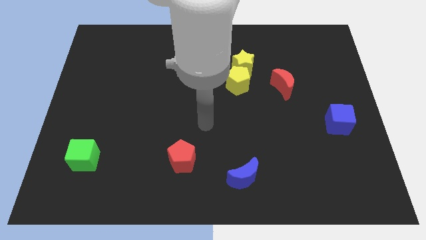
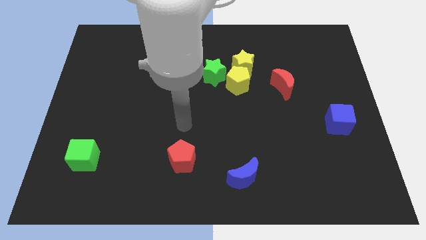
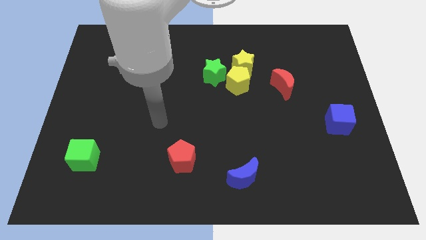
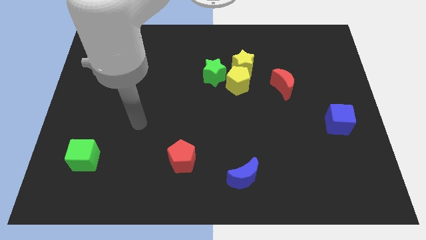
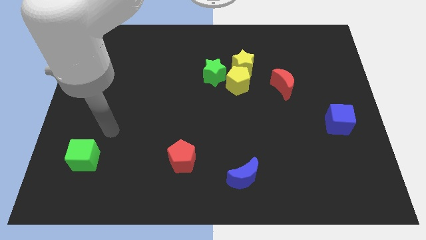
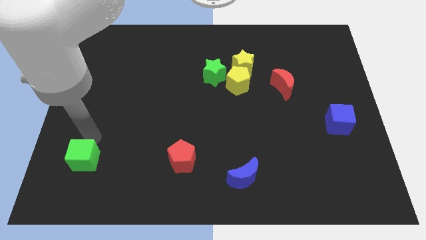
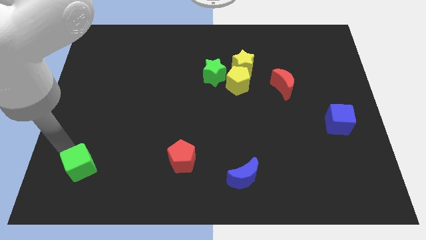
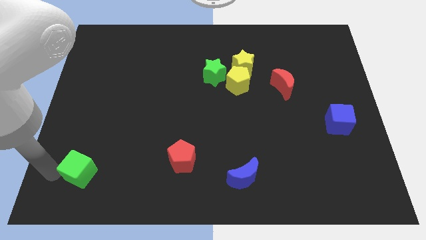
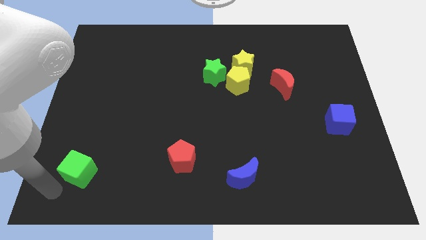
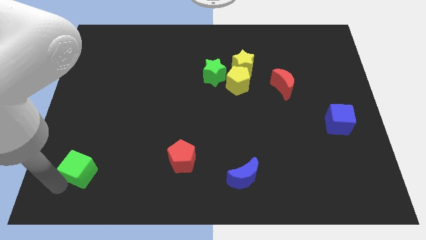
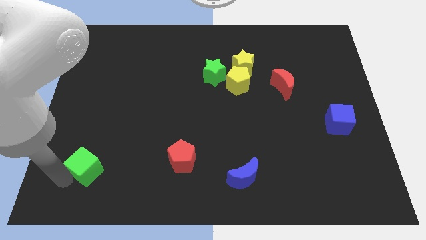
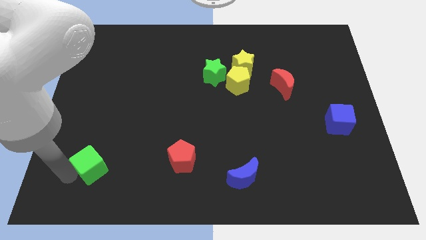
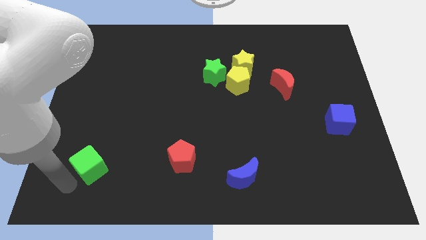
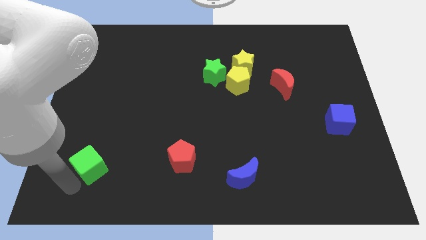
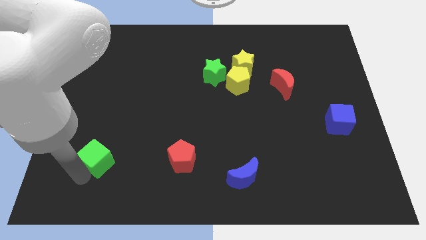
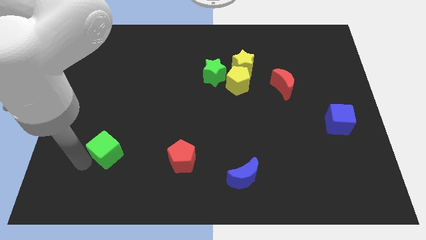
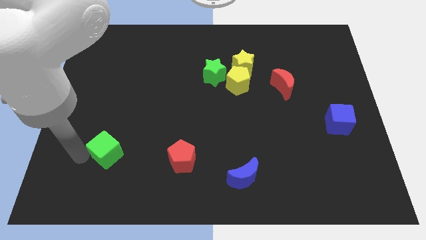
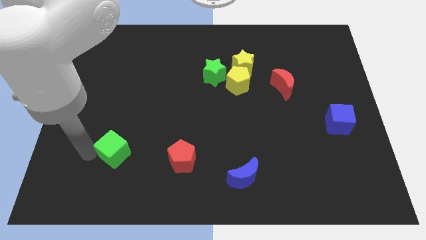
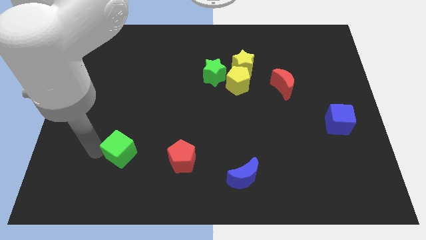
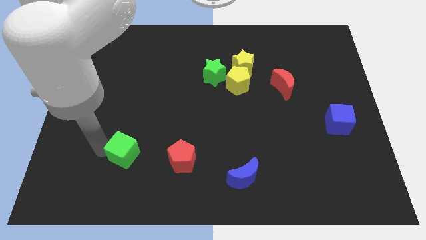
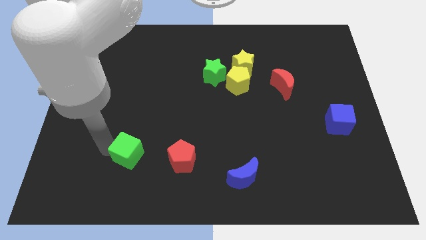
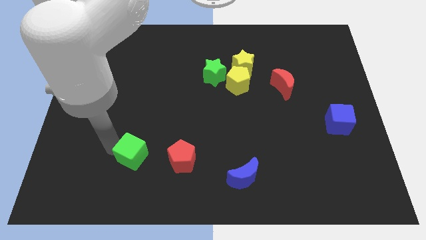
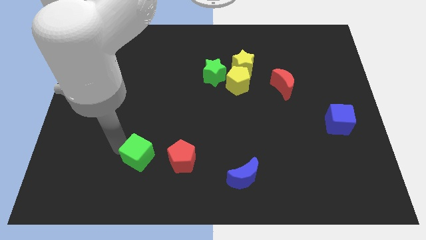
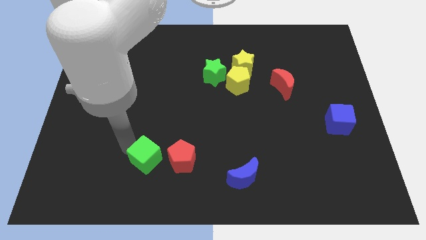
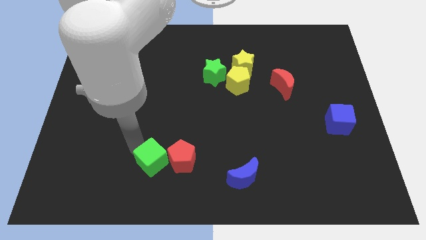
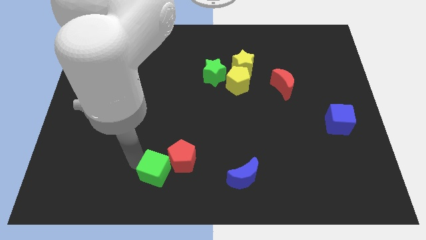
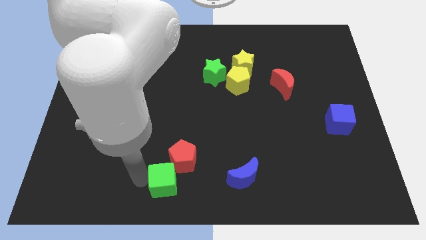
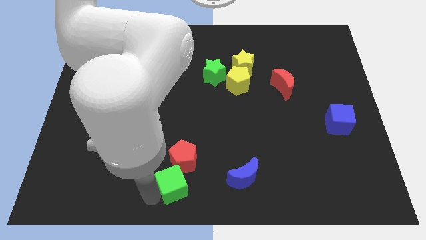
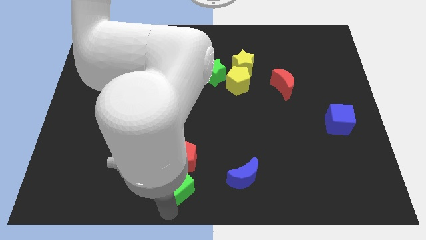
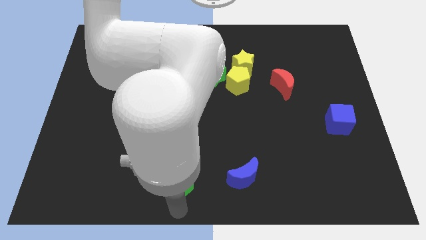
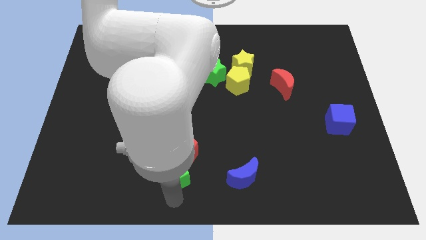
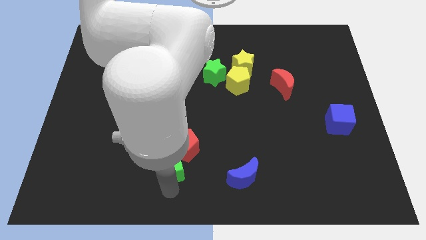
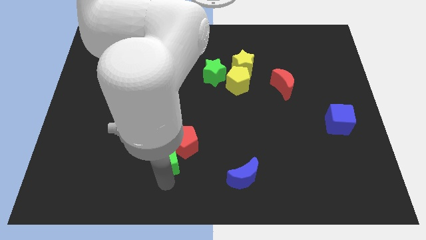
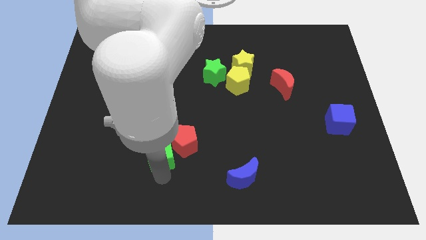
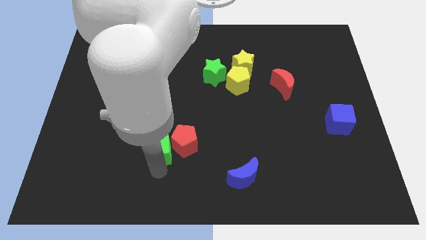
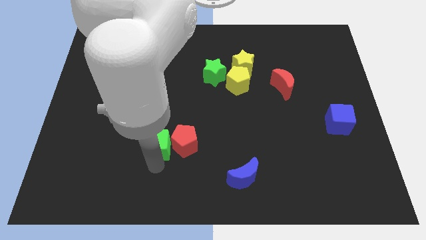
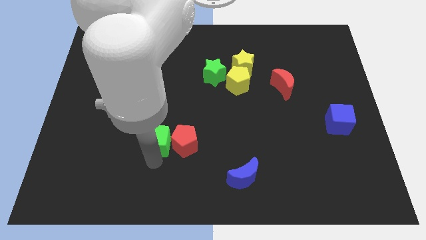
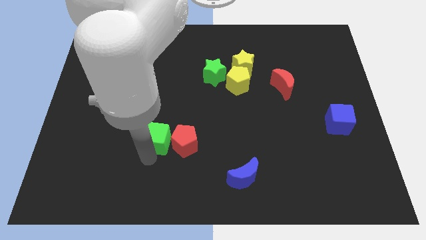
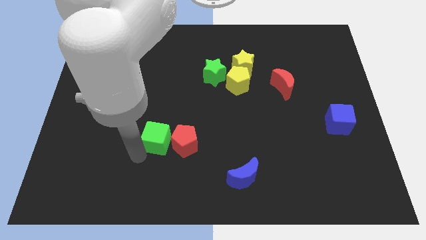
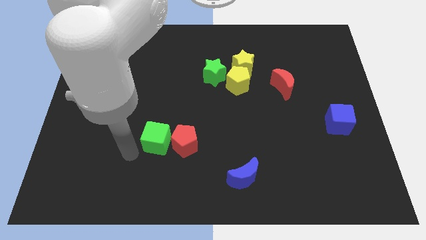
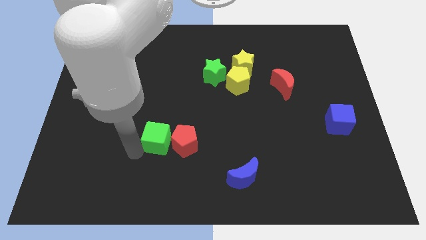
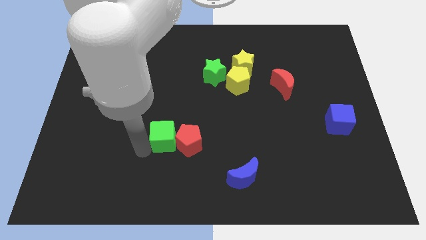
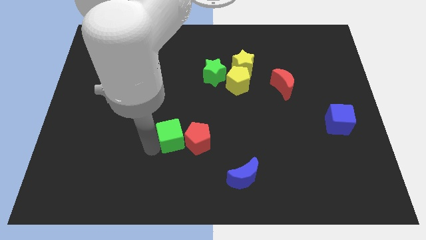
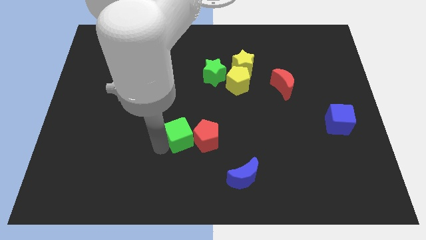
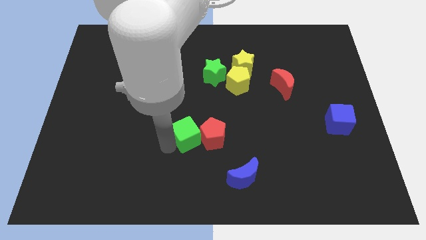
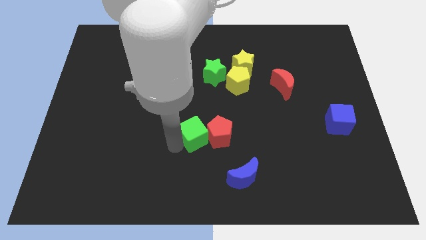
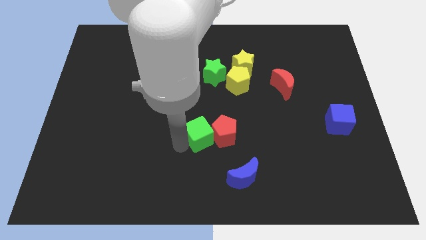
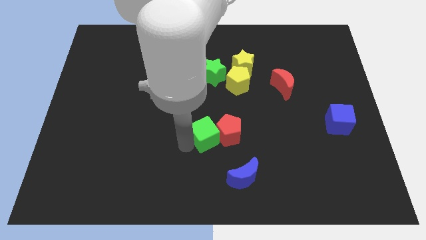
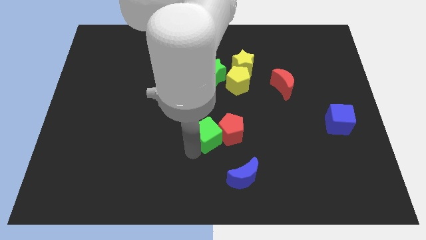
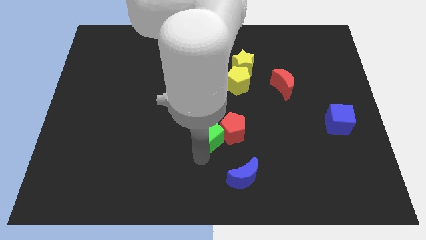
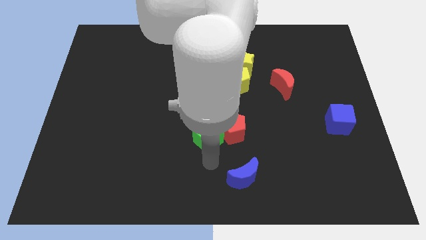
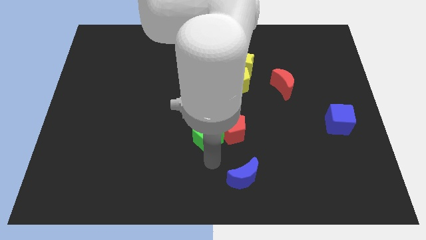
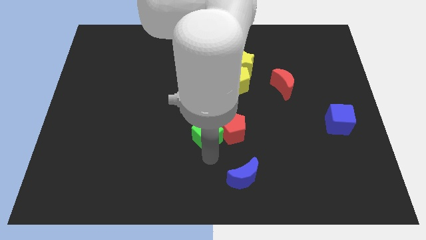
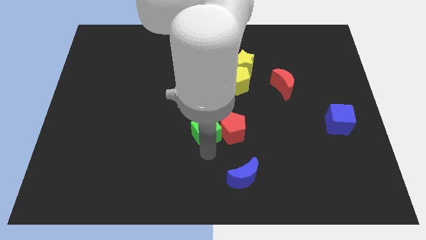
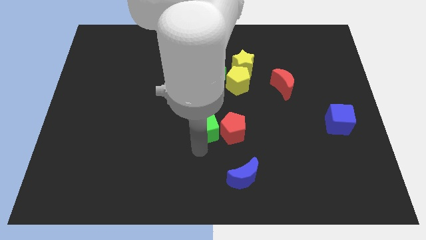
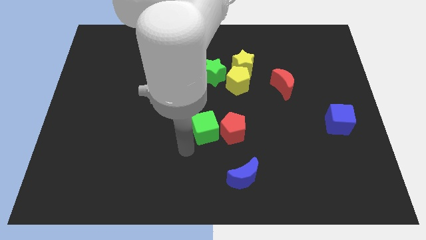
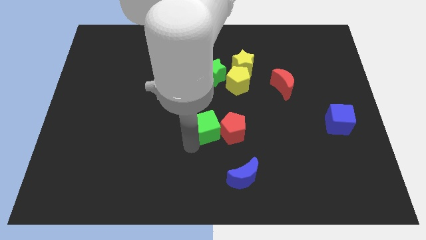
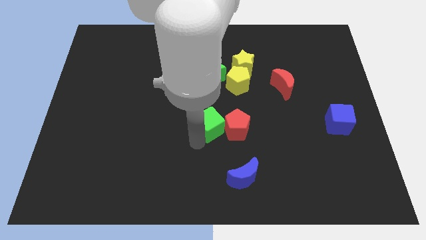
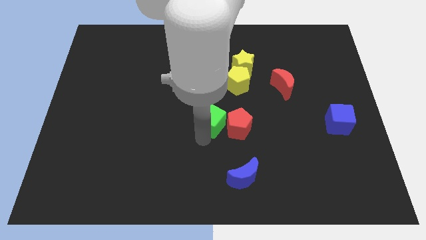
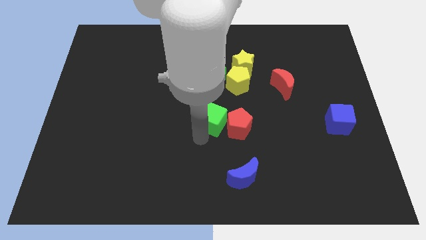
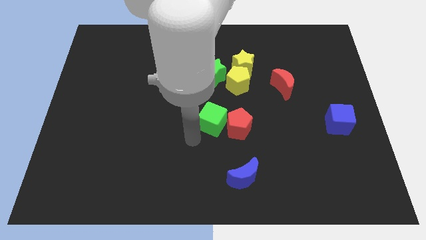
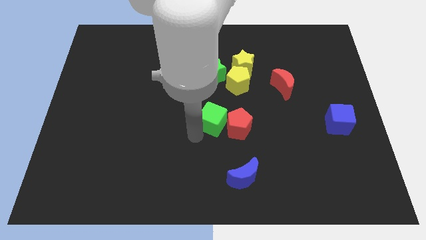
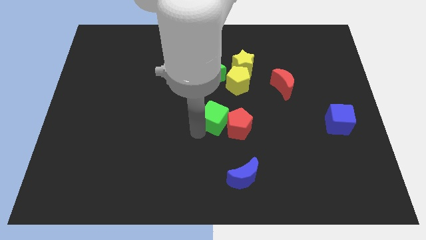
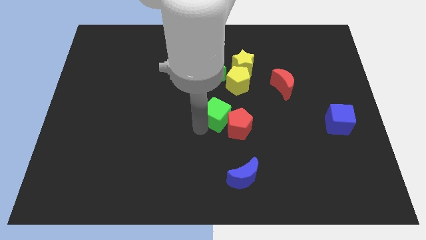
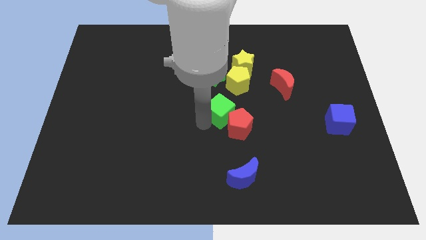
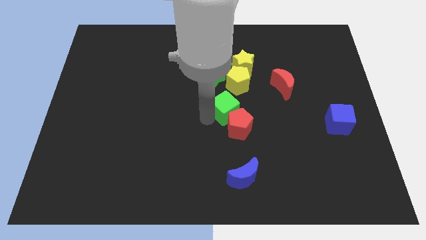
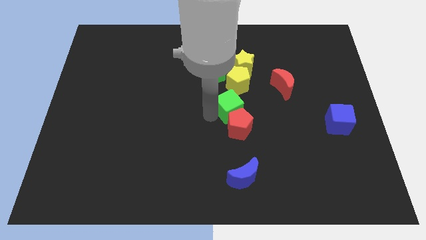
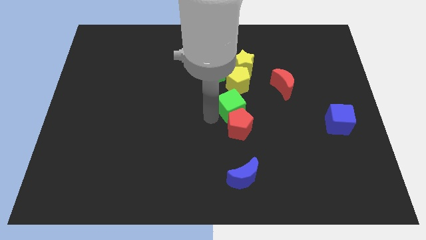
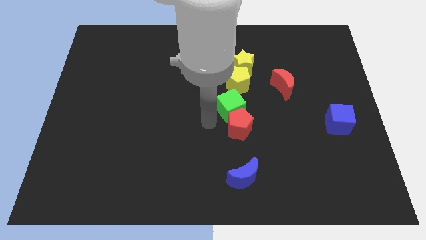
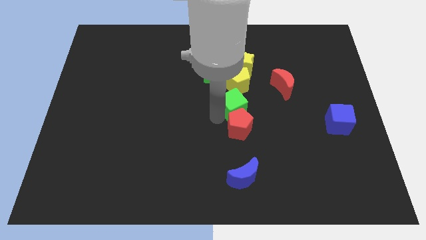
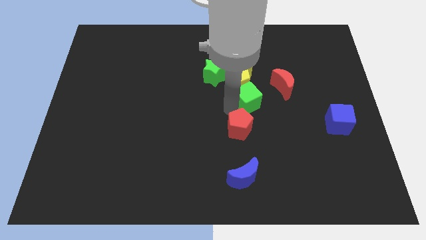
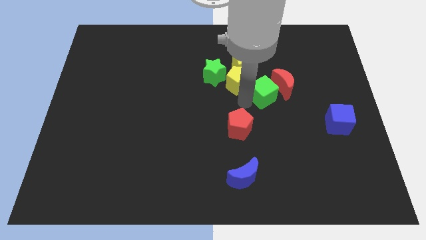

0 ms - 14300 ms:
move the green cube next to the red moon

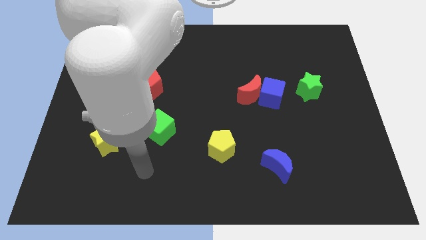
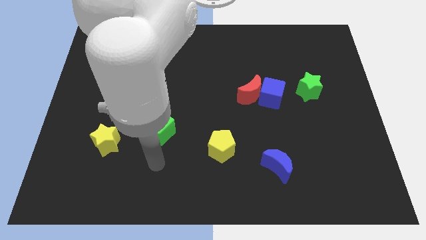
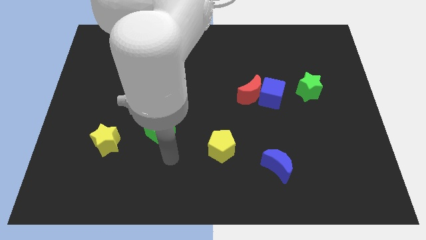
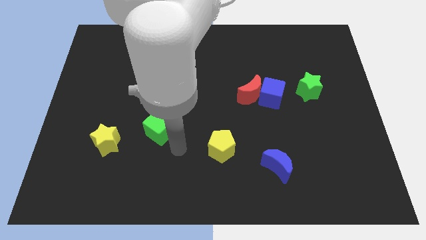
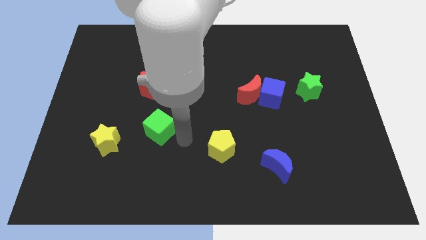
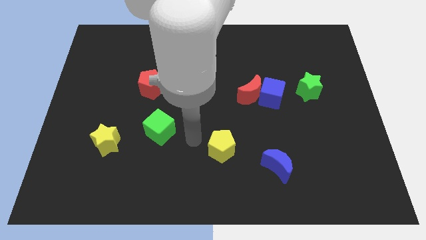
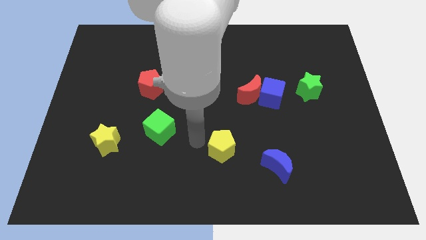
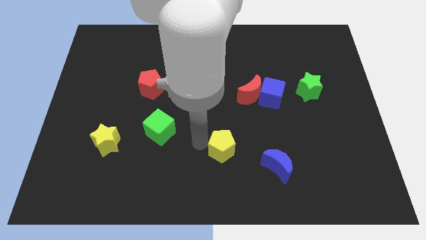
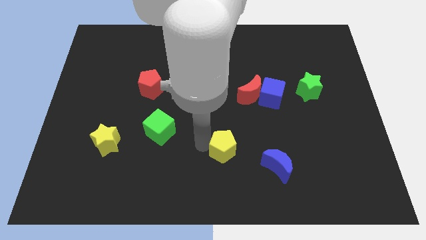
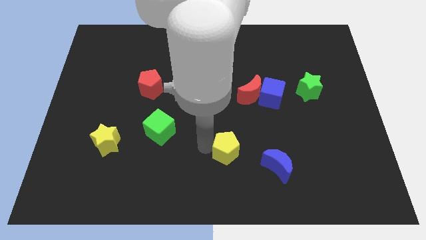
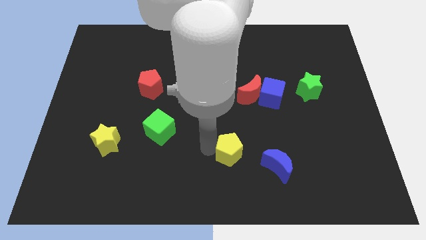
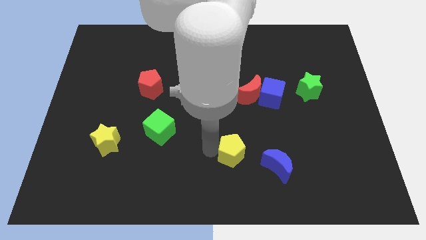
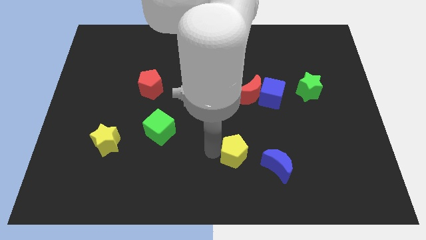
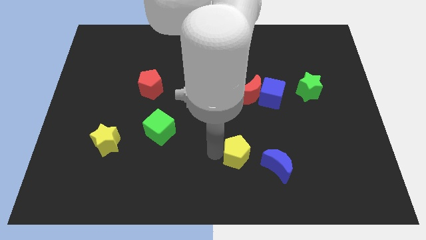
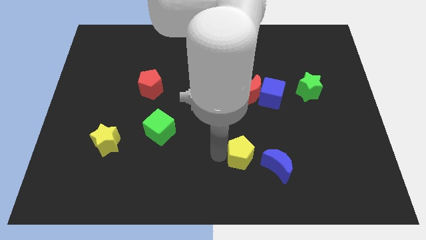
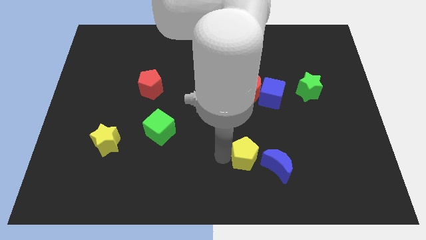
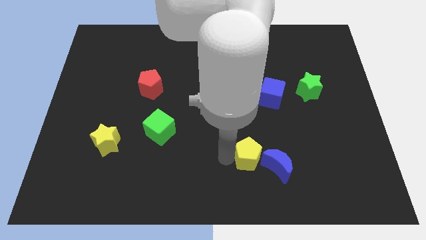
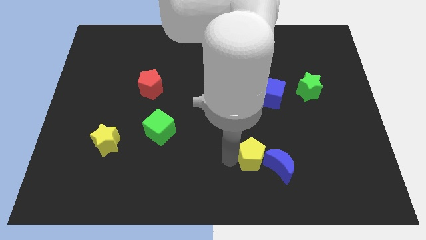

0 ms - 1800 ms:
push the yellow pentagon to the blue moon
